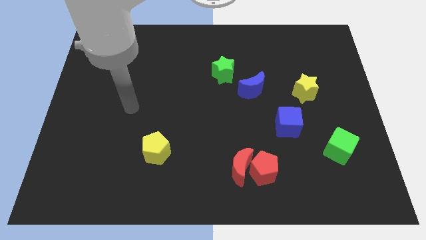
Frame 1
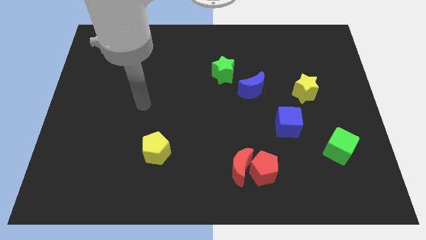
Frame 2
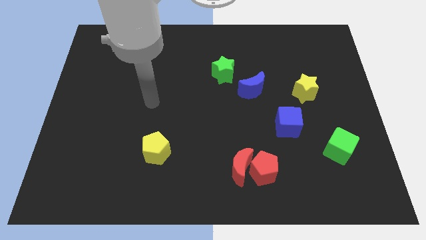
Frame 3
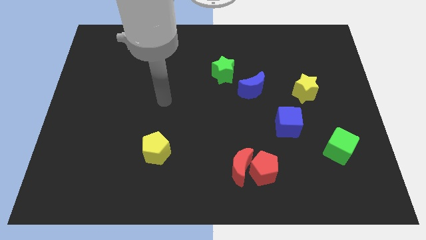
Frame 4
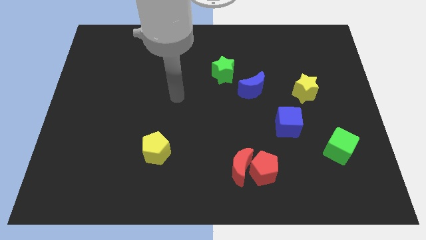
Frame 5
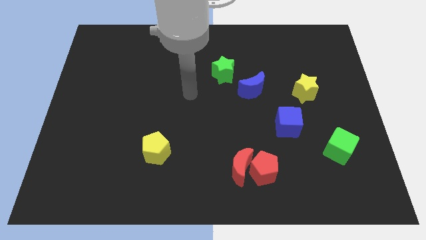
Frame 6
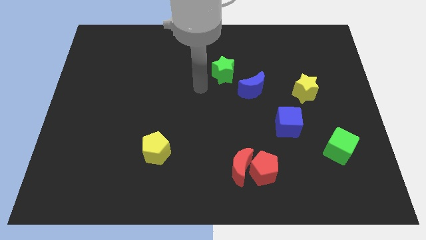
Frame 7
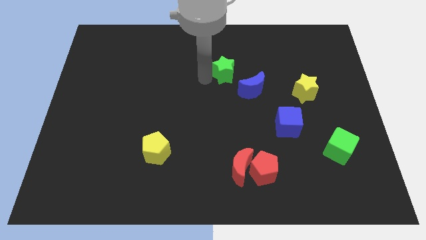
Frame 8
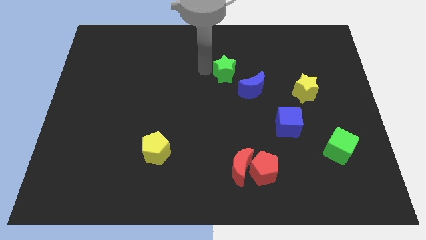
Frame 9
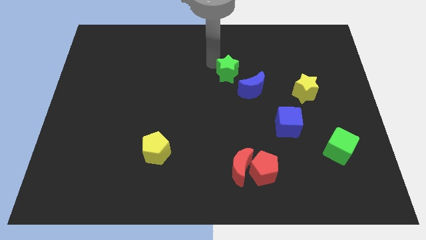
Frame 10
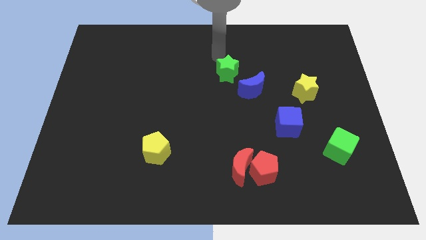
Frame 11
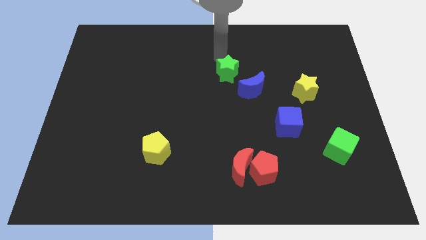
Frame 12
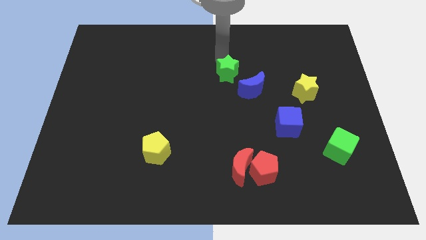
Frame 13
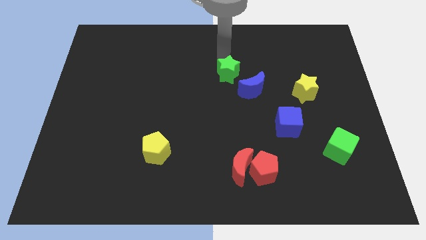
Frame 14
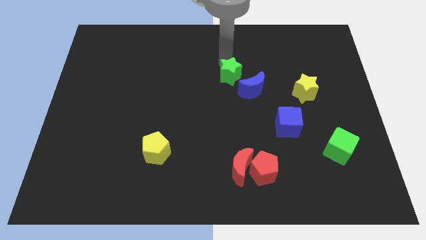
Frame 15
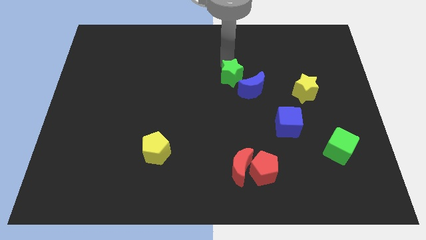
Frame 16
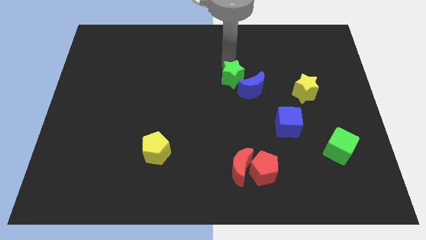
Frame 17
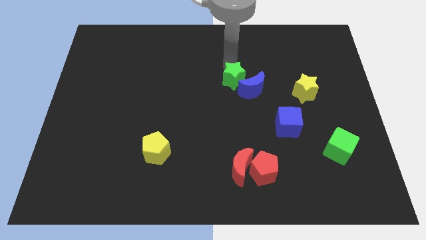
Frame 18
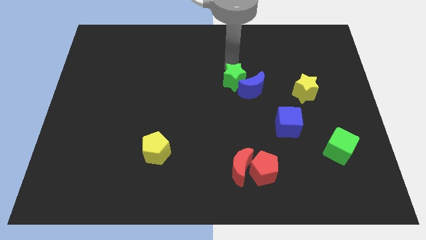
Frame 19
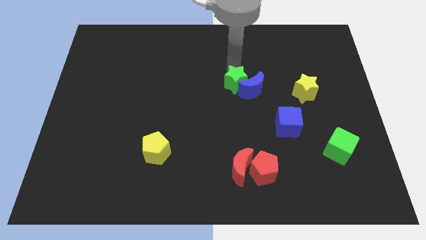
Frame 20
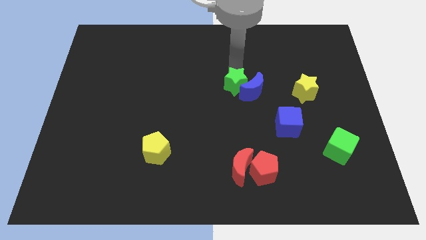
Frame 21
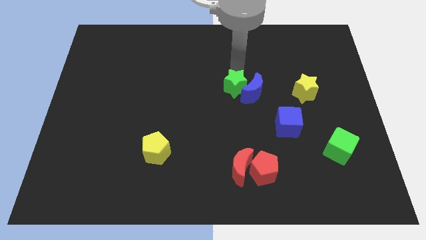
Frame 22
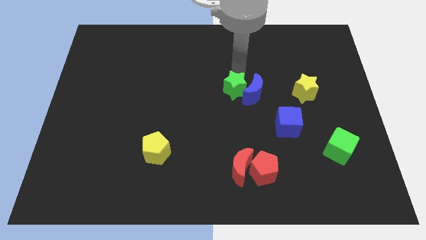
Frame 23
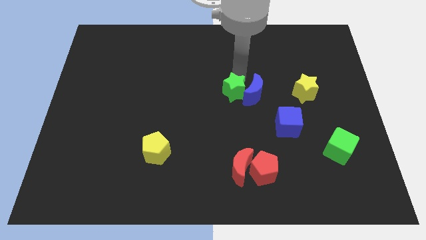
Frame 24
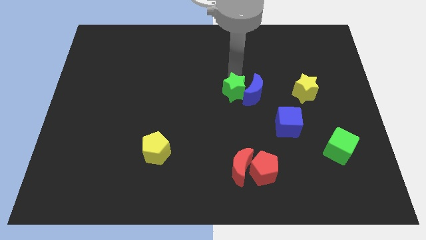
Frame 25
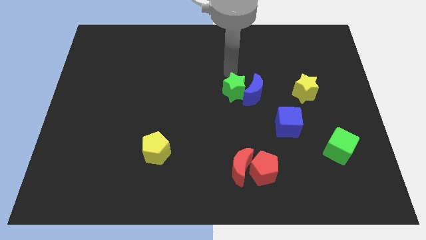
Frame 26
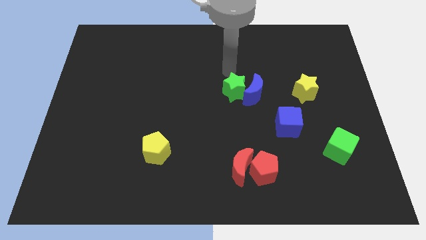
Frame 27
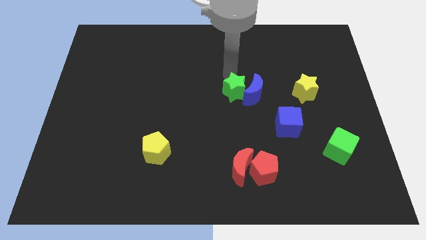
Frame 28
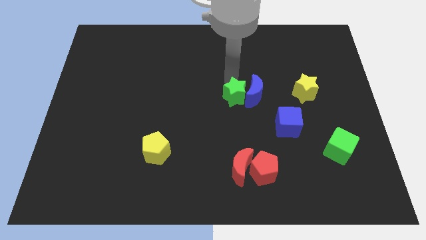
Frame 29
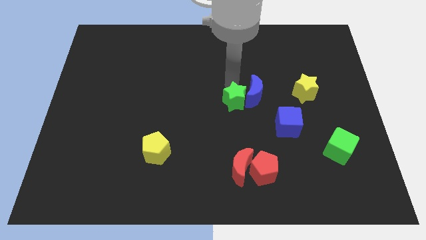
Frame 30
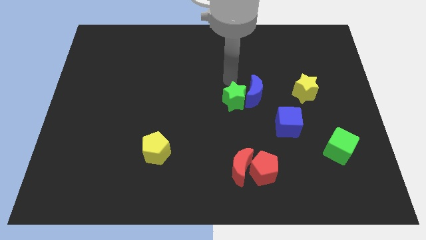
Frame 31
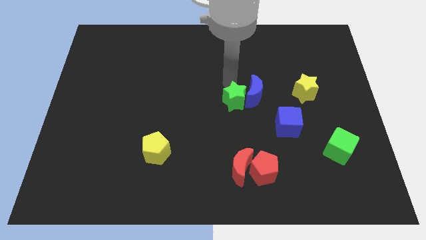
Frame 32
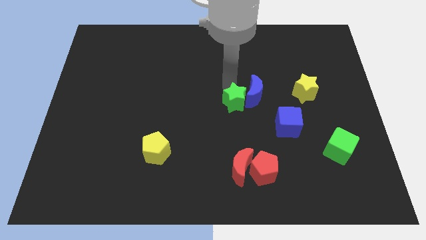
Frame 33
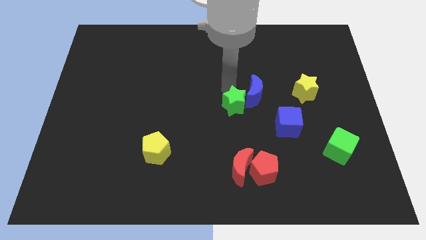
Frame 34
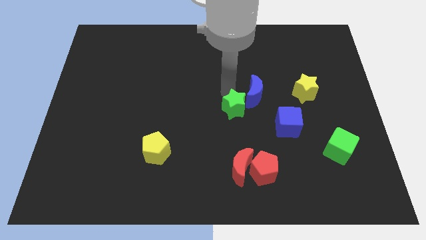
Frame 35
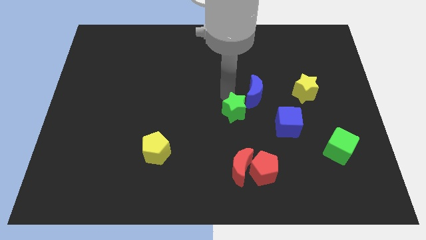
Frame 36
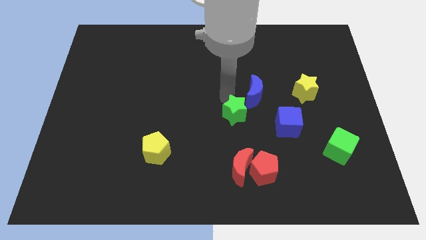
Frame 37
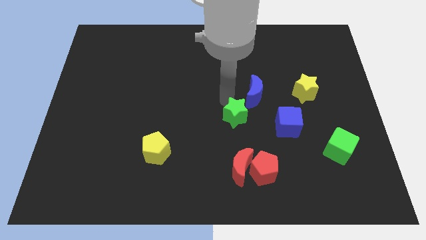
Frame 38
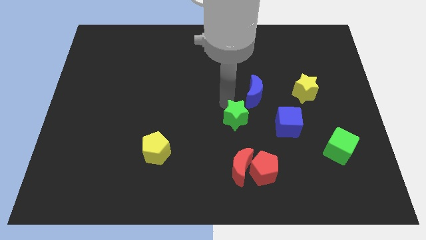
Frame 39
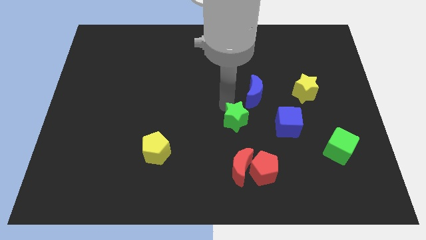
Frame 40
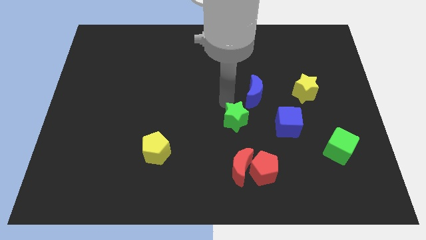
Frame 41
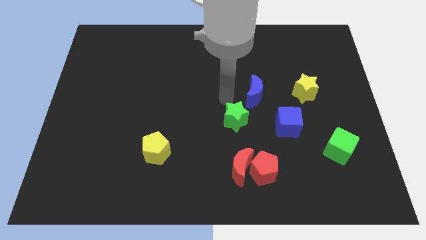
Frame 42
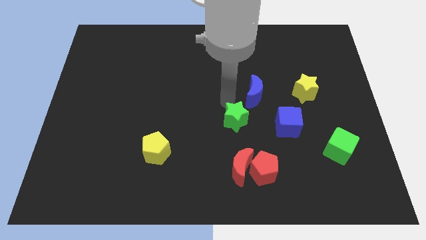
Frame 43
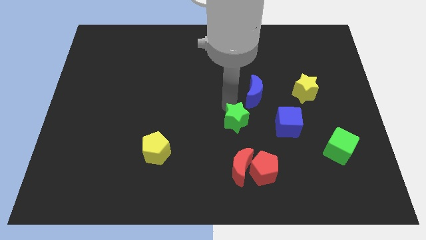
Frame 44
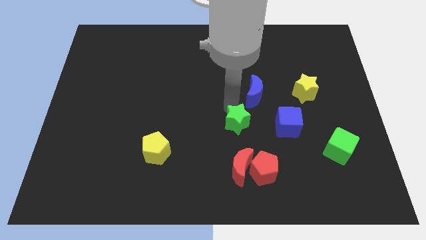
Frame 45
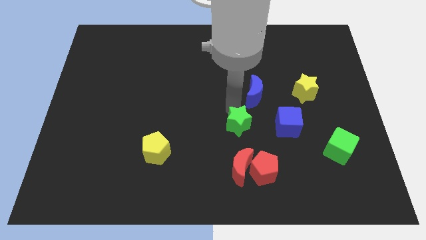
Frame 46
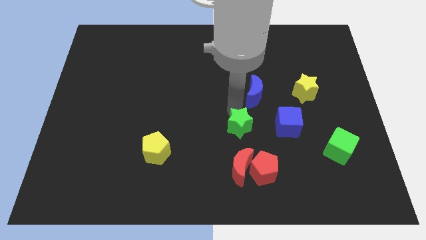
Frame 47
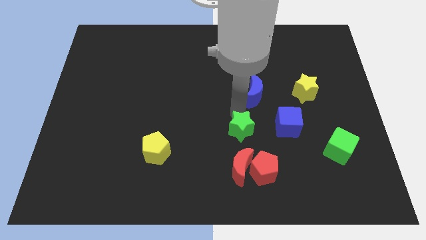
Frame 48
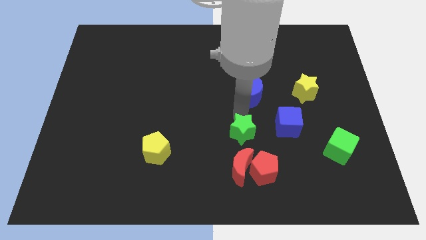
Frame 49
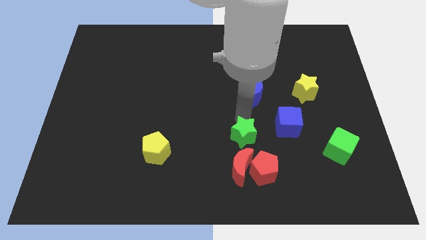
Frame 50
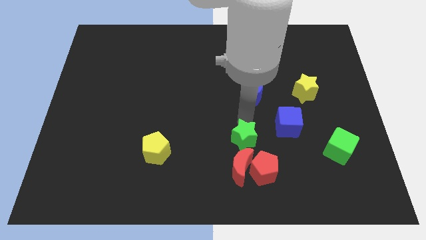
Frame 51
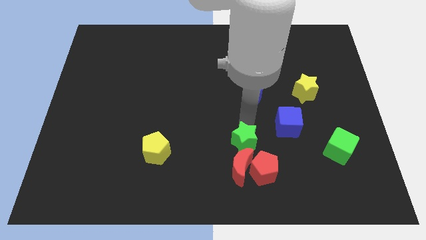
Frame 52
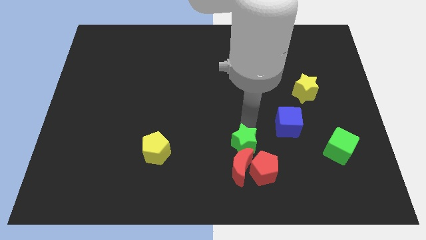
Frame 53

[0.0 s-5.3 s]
slide the green star to the red moon

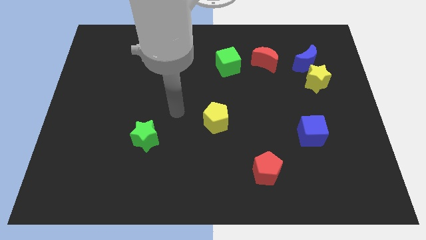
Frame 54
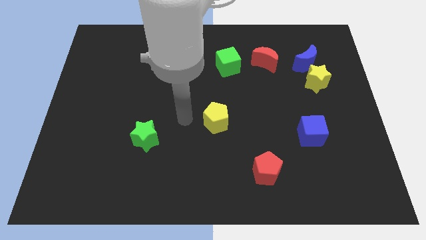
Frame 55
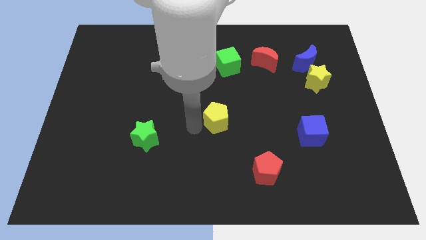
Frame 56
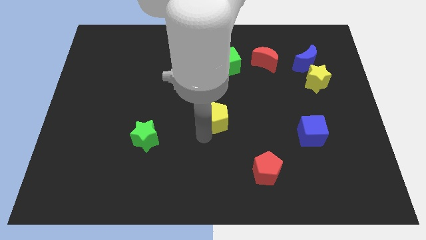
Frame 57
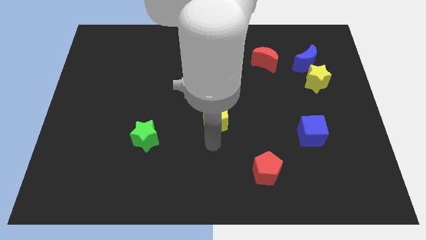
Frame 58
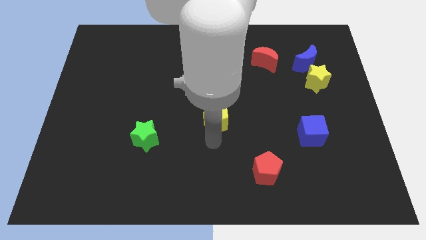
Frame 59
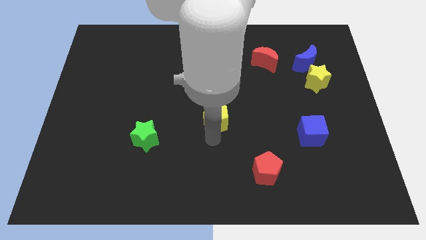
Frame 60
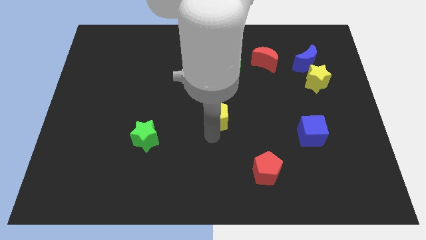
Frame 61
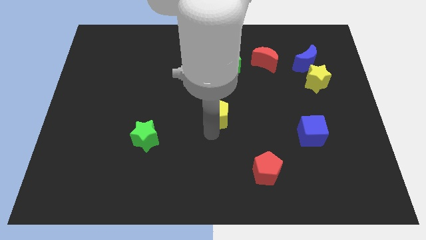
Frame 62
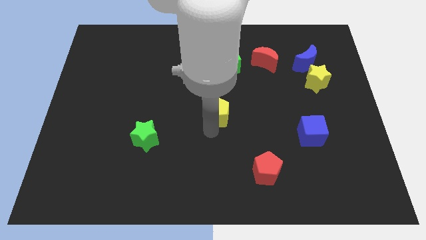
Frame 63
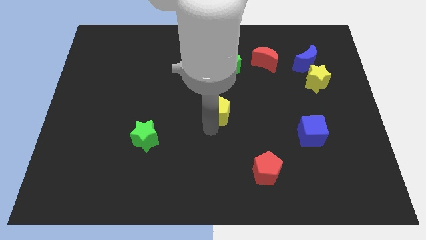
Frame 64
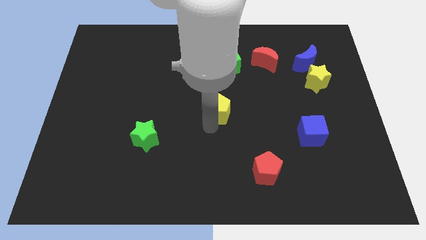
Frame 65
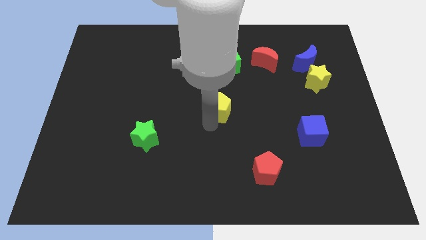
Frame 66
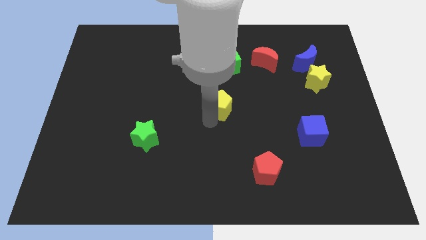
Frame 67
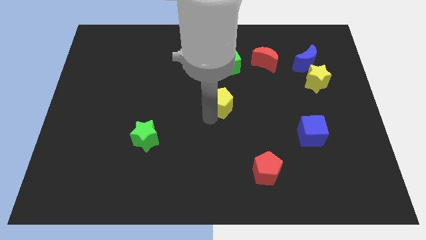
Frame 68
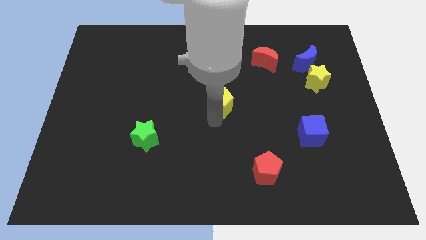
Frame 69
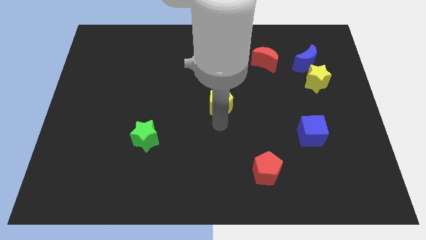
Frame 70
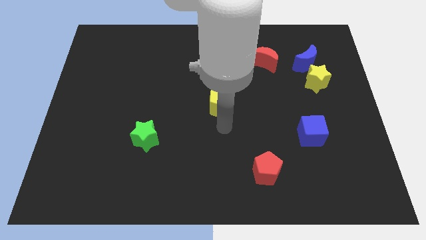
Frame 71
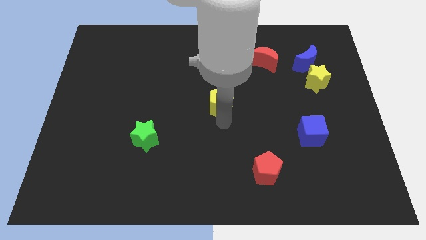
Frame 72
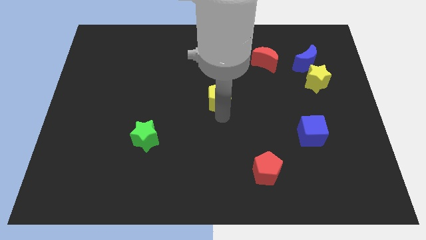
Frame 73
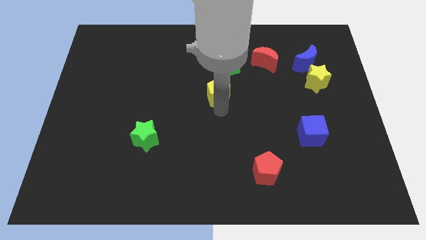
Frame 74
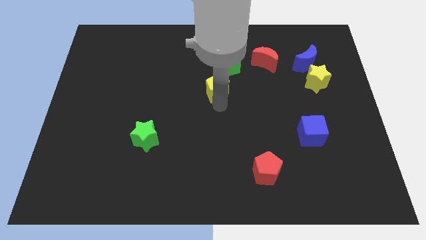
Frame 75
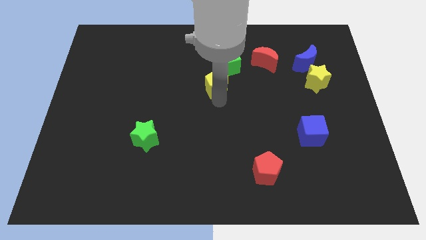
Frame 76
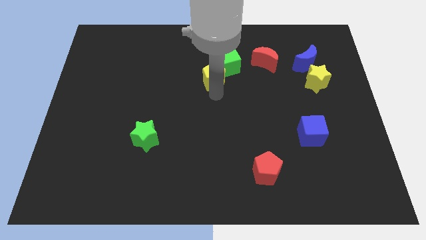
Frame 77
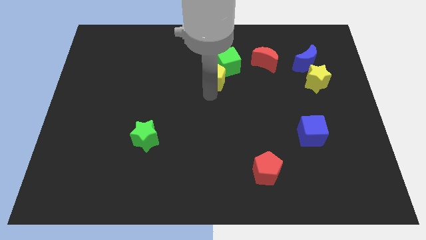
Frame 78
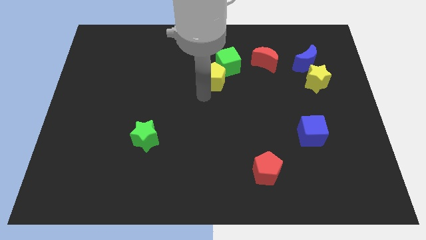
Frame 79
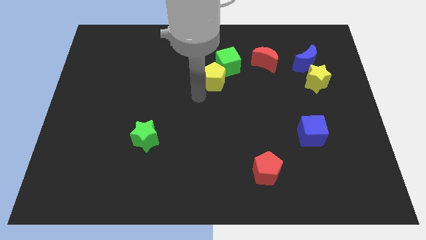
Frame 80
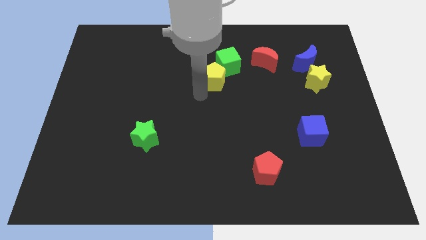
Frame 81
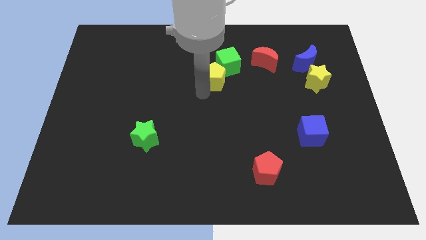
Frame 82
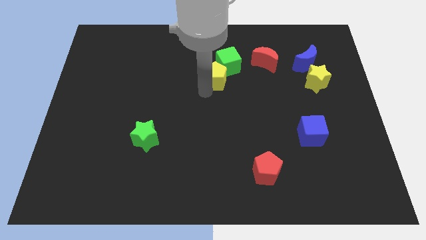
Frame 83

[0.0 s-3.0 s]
move the yellow pentagon next to the green cube
